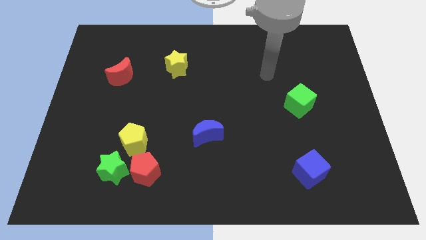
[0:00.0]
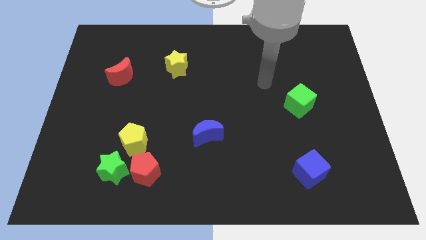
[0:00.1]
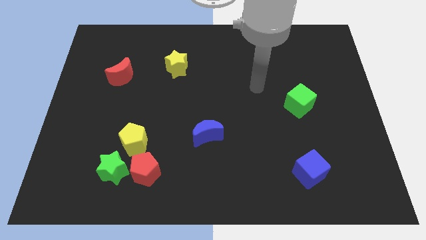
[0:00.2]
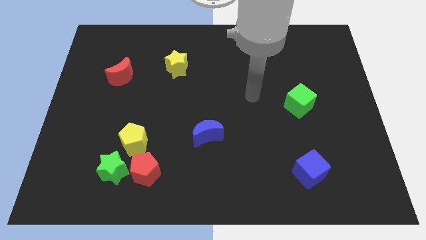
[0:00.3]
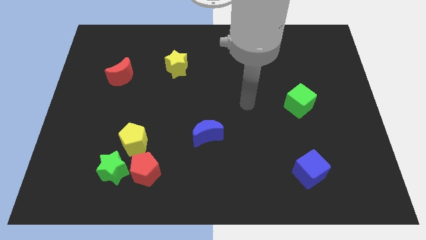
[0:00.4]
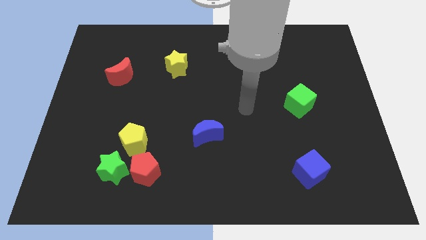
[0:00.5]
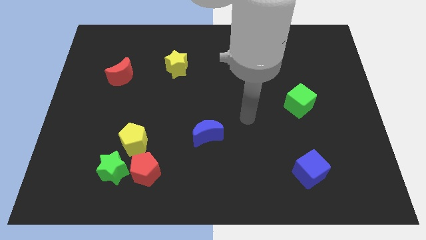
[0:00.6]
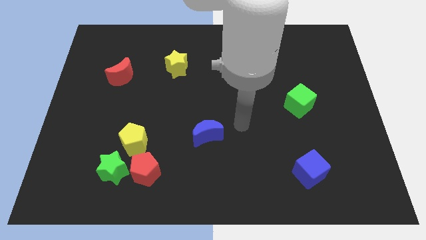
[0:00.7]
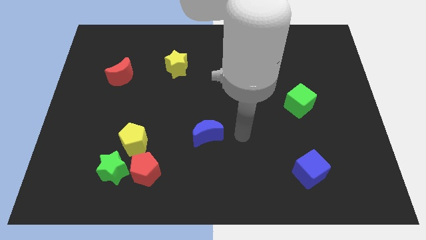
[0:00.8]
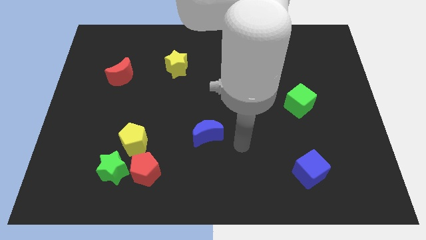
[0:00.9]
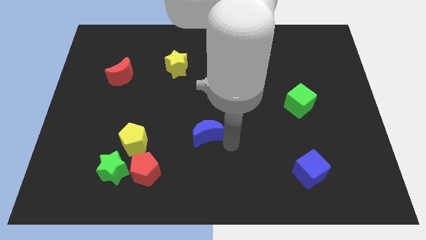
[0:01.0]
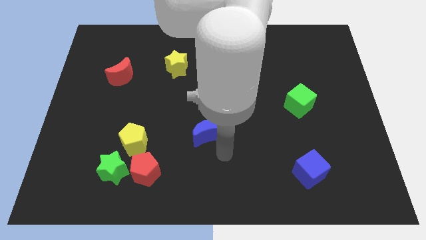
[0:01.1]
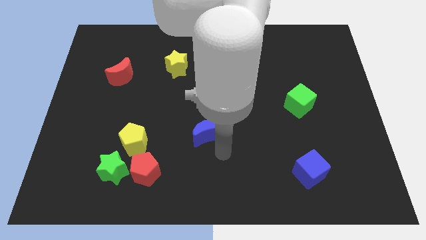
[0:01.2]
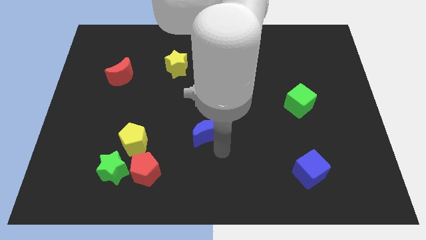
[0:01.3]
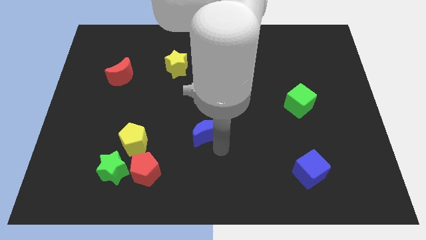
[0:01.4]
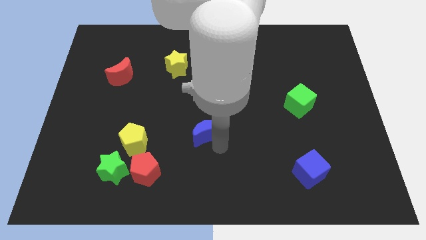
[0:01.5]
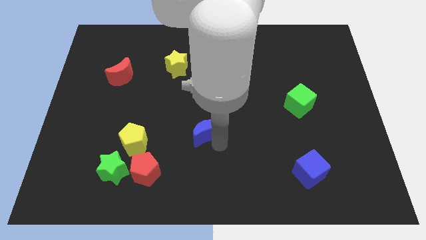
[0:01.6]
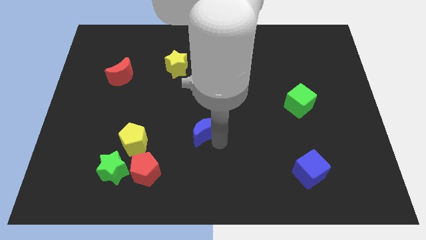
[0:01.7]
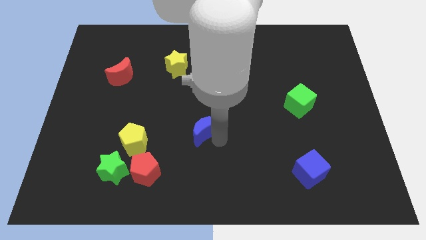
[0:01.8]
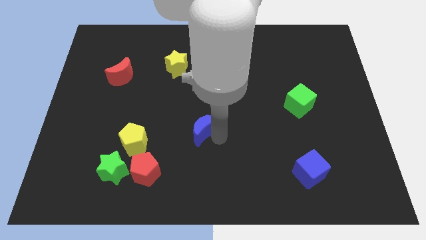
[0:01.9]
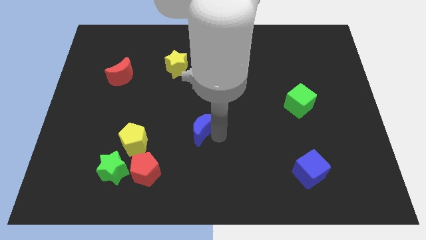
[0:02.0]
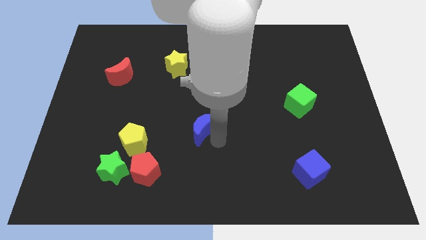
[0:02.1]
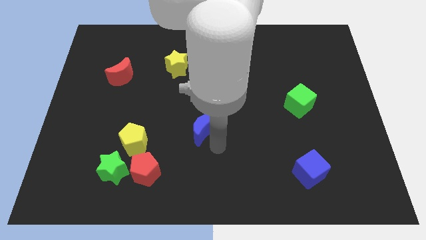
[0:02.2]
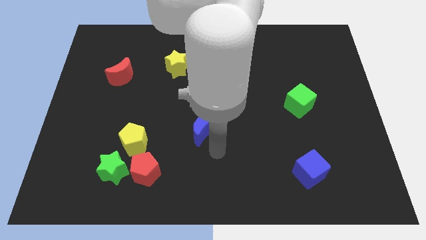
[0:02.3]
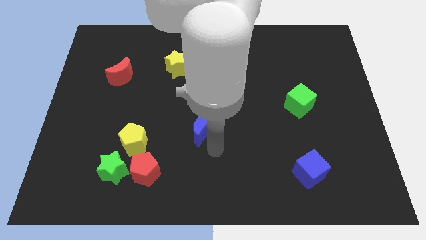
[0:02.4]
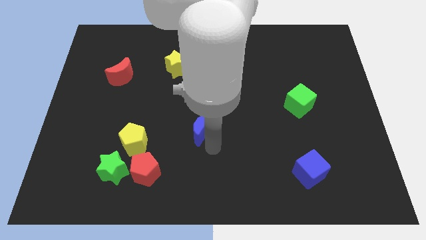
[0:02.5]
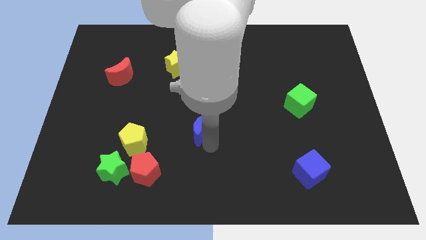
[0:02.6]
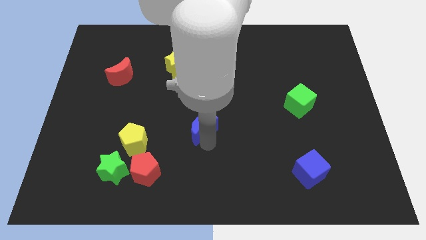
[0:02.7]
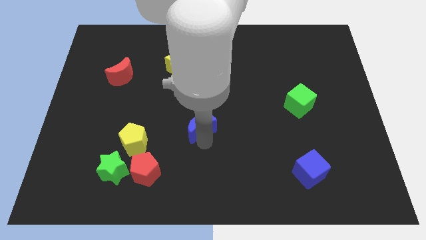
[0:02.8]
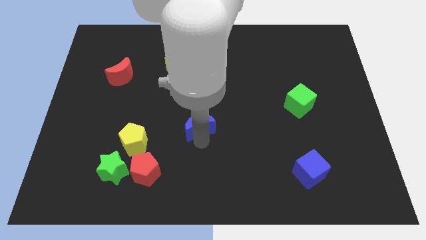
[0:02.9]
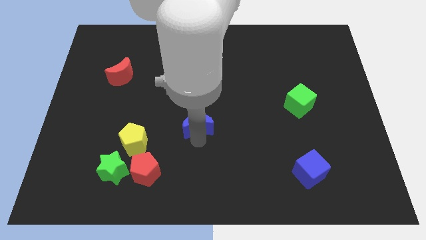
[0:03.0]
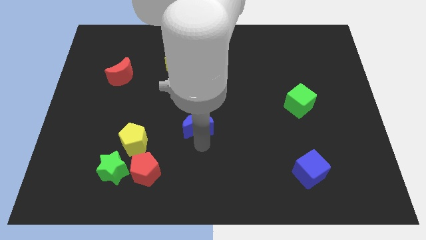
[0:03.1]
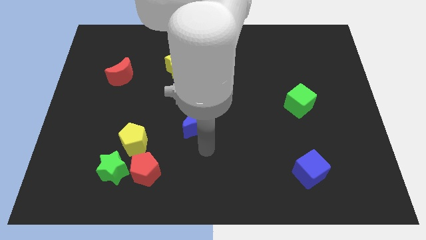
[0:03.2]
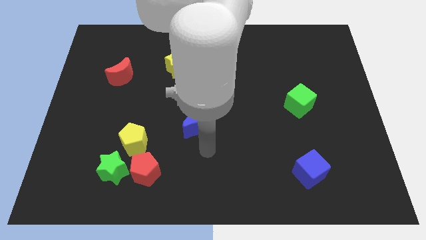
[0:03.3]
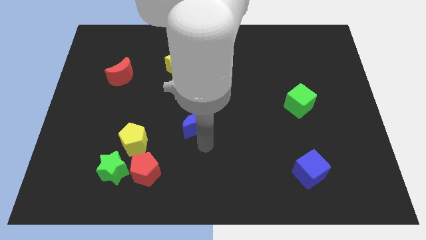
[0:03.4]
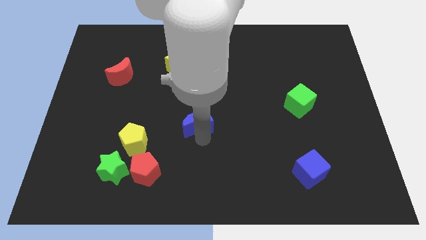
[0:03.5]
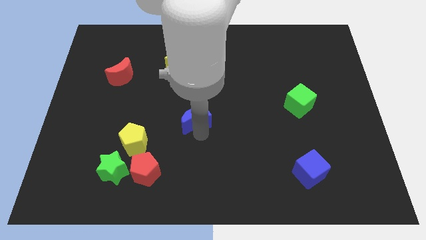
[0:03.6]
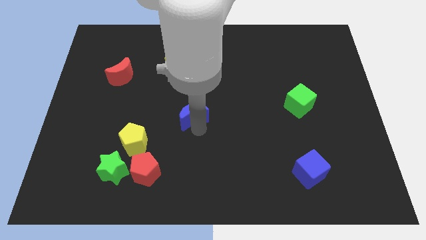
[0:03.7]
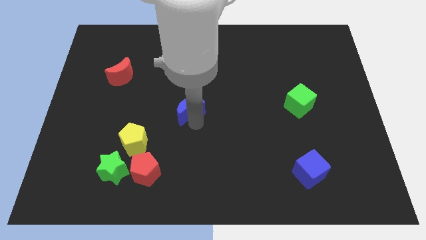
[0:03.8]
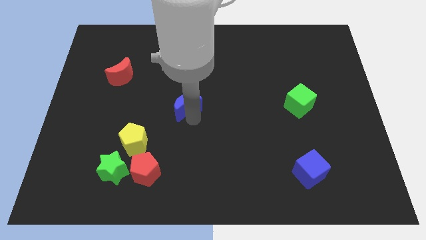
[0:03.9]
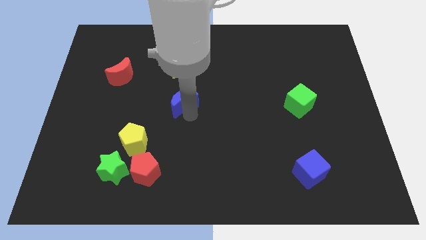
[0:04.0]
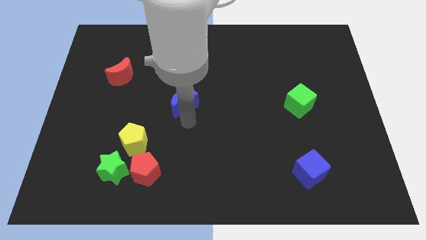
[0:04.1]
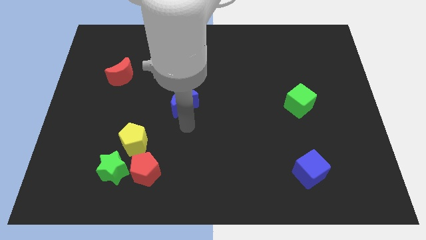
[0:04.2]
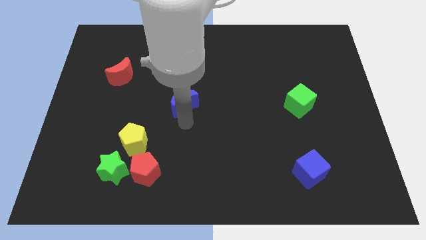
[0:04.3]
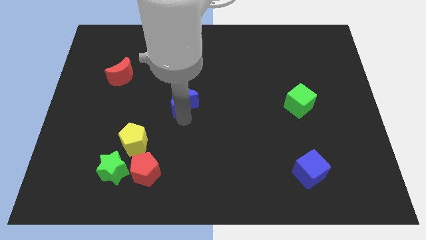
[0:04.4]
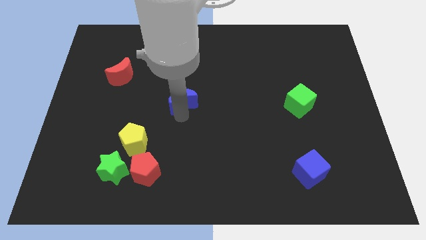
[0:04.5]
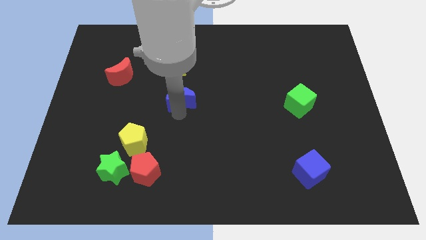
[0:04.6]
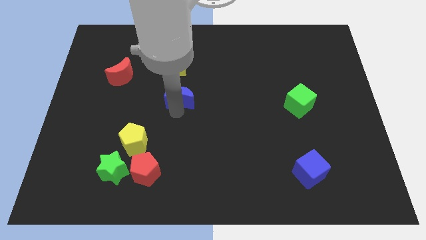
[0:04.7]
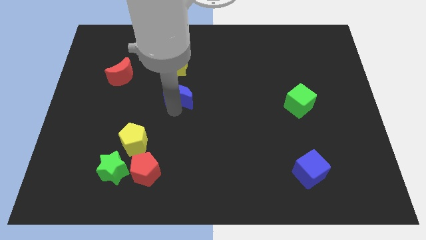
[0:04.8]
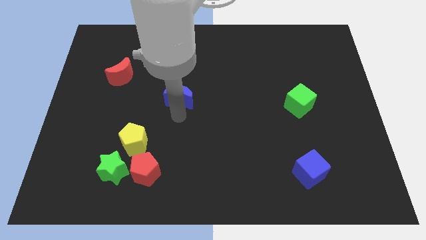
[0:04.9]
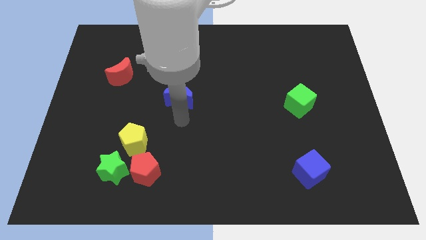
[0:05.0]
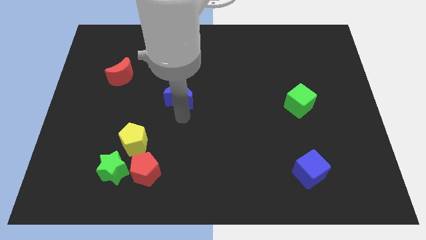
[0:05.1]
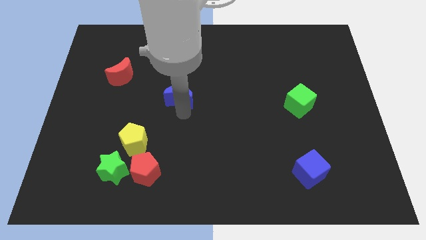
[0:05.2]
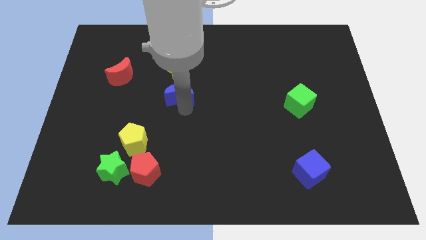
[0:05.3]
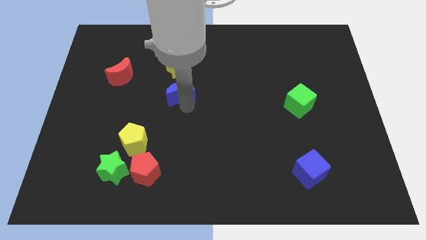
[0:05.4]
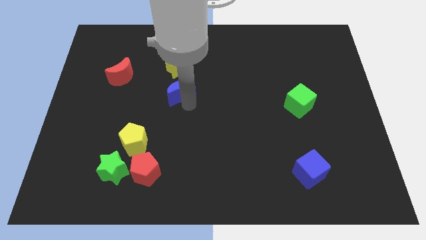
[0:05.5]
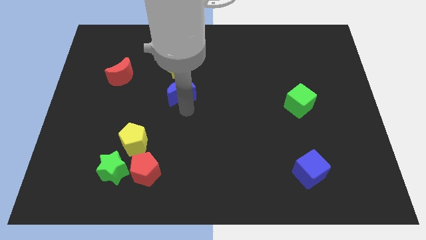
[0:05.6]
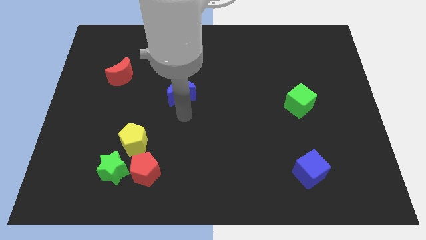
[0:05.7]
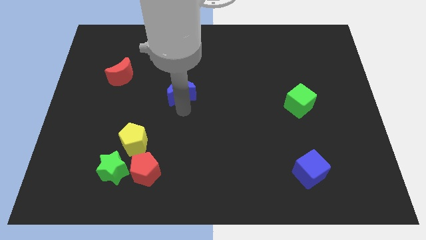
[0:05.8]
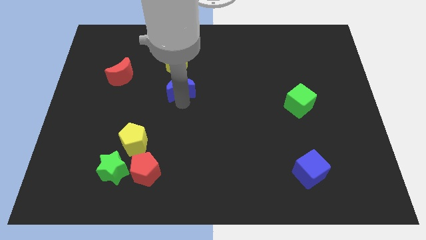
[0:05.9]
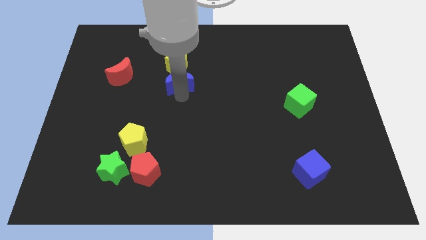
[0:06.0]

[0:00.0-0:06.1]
slide the blue moon to the yellow star

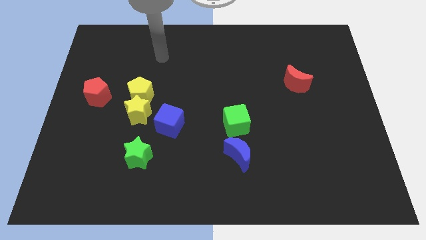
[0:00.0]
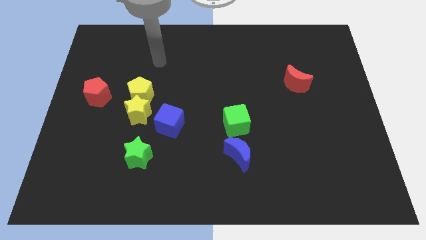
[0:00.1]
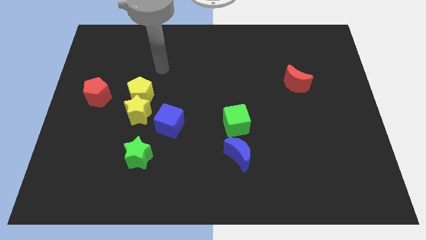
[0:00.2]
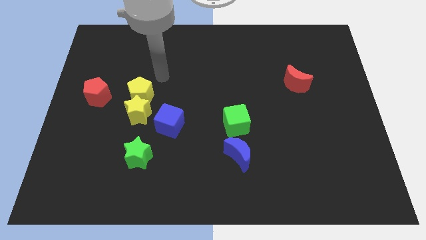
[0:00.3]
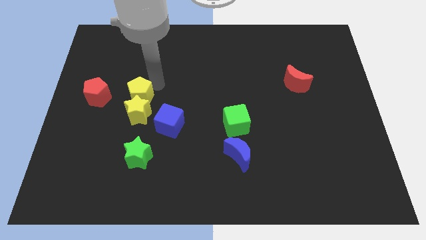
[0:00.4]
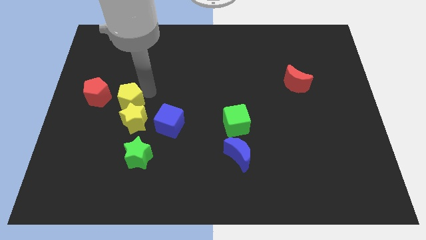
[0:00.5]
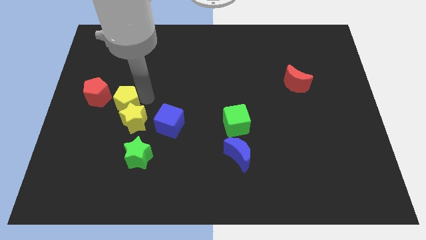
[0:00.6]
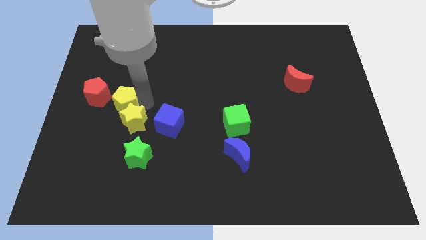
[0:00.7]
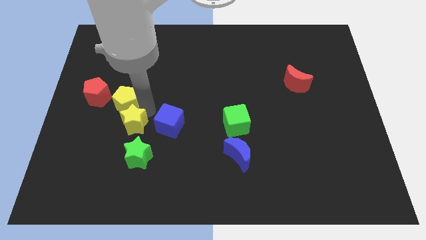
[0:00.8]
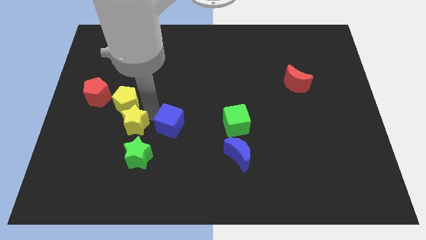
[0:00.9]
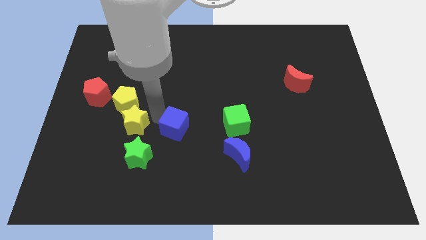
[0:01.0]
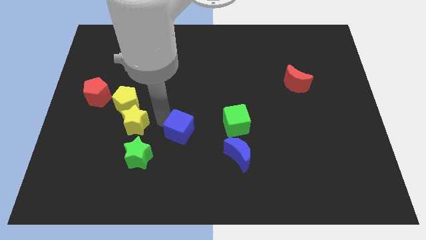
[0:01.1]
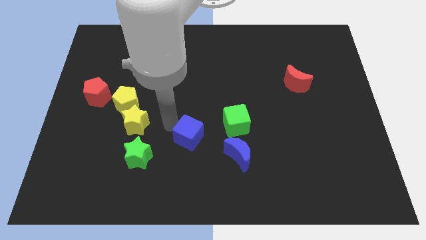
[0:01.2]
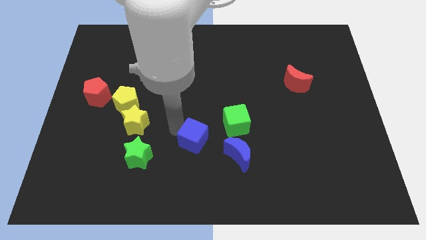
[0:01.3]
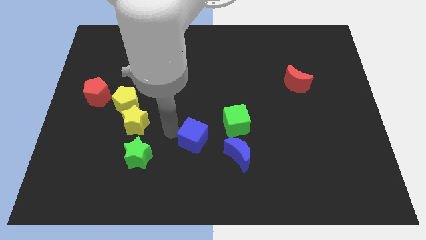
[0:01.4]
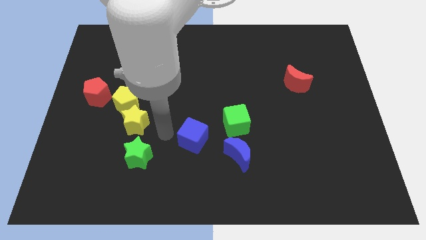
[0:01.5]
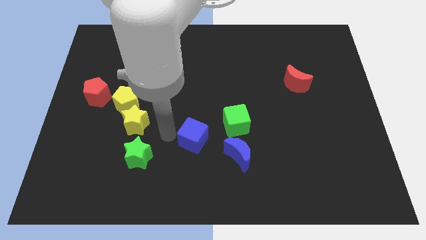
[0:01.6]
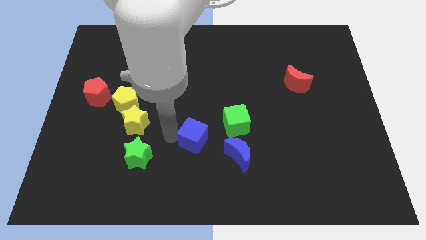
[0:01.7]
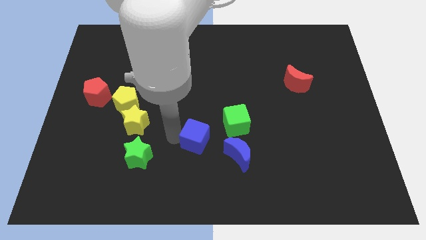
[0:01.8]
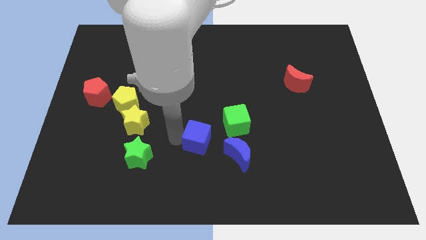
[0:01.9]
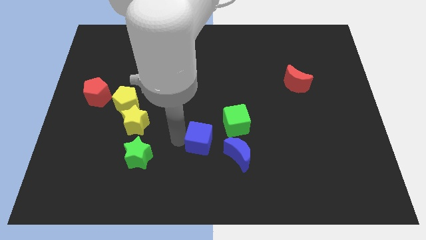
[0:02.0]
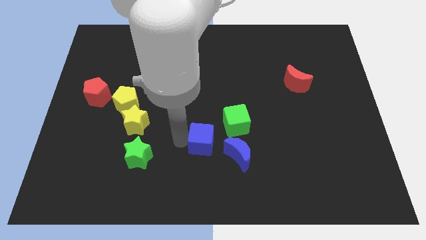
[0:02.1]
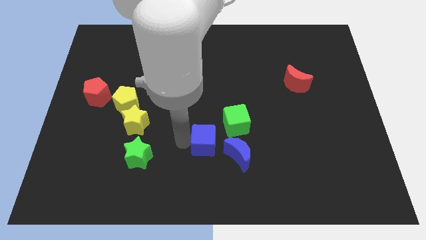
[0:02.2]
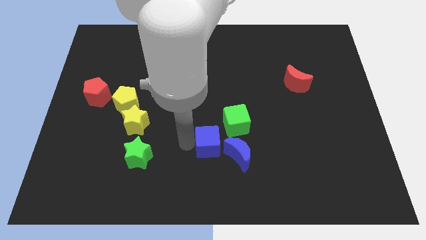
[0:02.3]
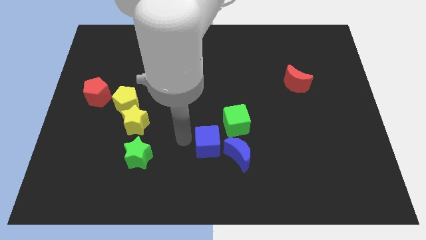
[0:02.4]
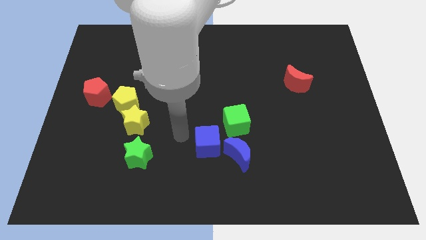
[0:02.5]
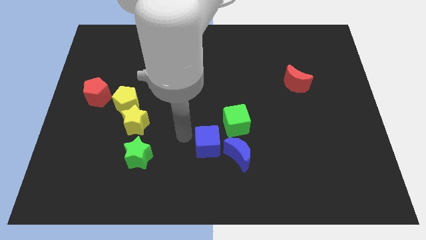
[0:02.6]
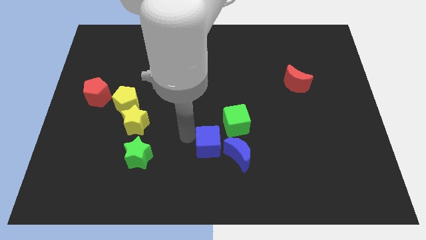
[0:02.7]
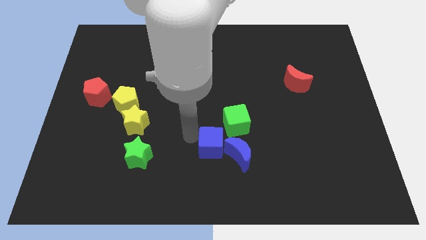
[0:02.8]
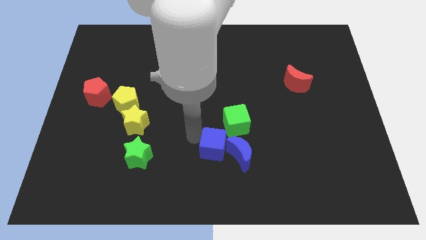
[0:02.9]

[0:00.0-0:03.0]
push the blue cube close to the blue moon
